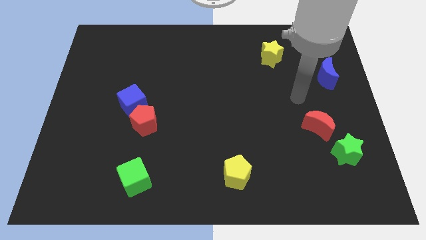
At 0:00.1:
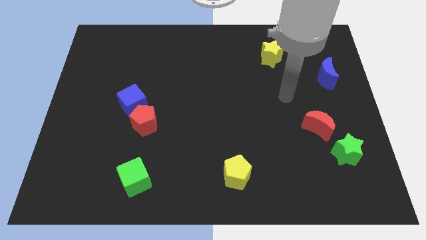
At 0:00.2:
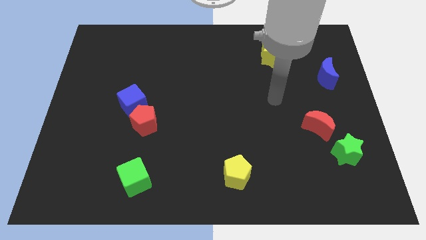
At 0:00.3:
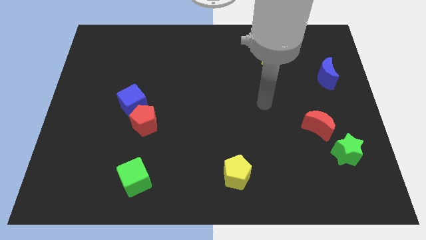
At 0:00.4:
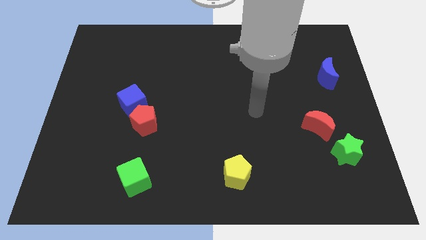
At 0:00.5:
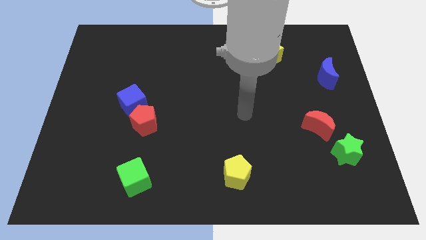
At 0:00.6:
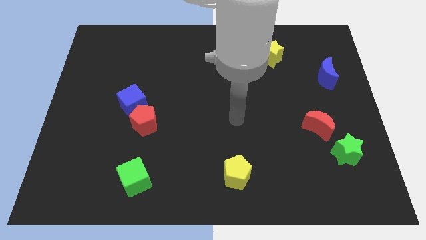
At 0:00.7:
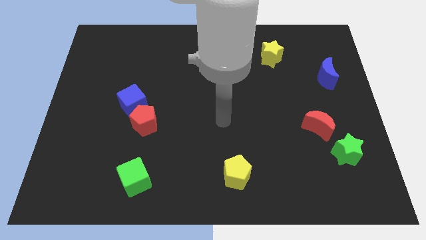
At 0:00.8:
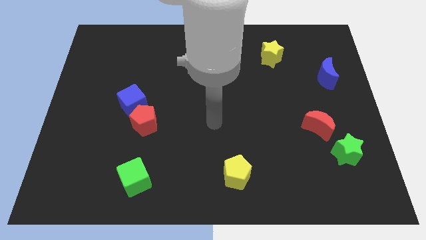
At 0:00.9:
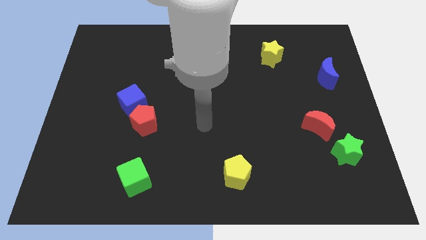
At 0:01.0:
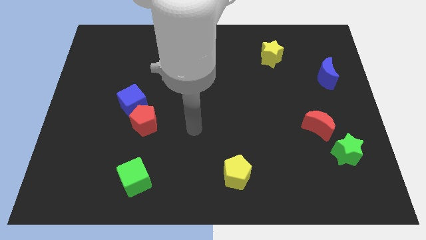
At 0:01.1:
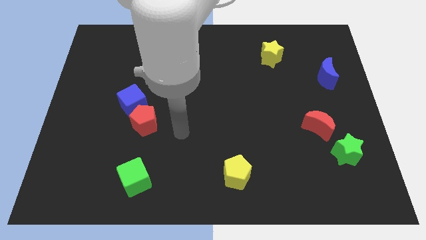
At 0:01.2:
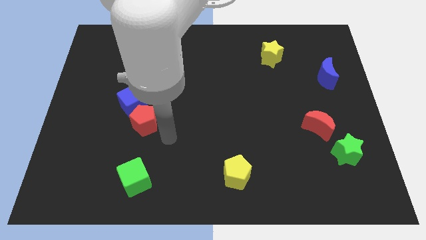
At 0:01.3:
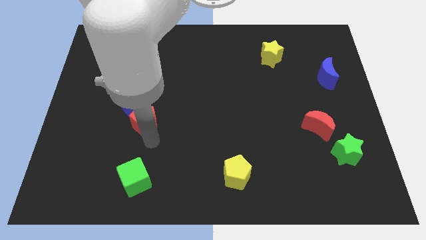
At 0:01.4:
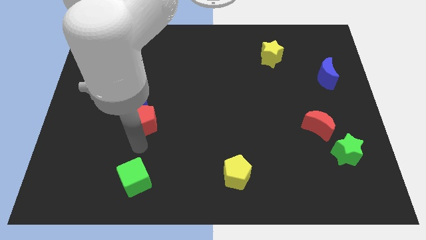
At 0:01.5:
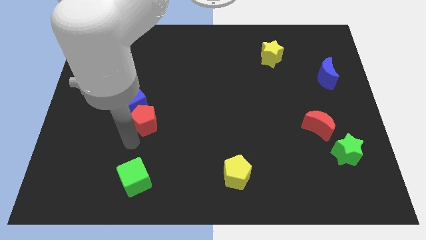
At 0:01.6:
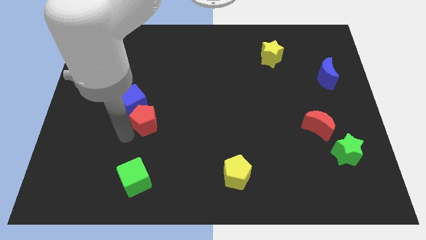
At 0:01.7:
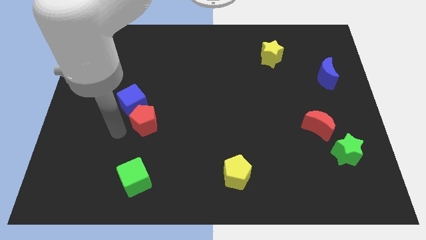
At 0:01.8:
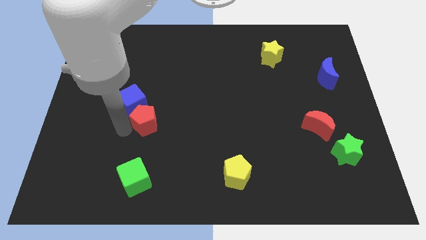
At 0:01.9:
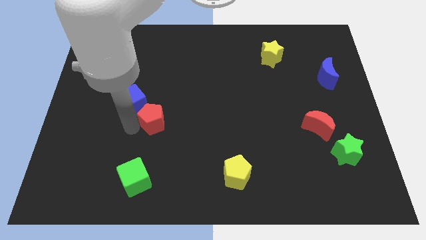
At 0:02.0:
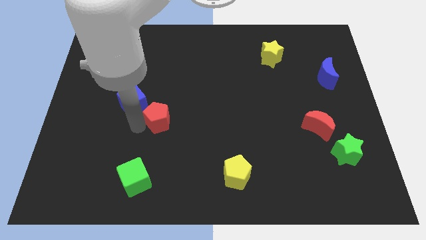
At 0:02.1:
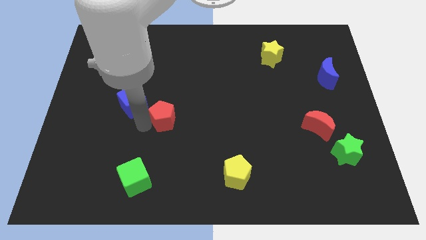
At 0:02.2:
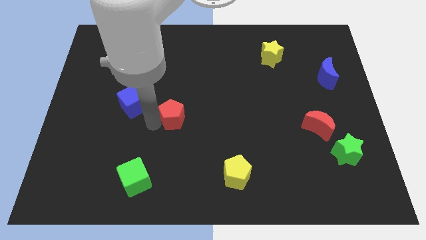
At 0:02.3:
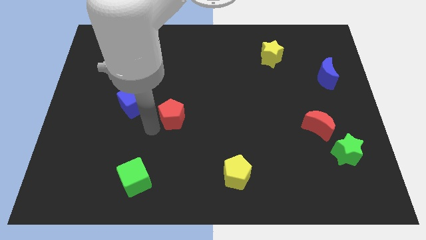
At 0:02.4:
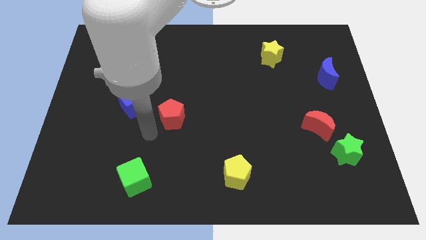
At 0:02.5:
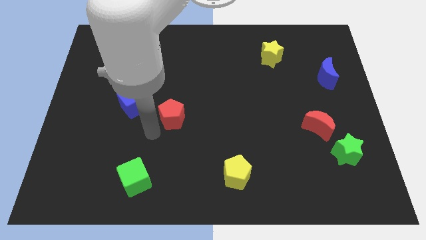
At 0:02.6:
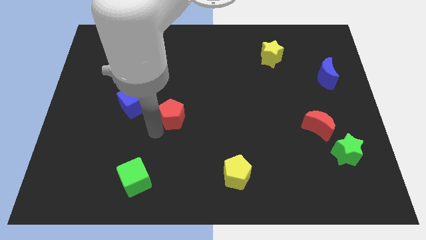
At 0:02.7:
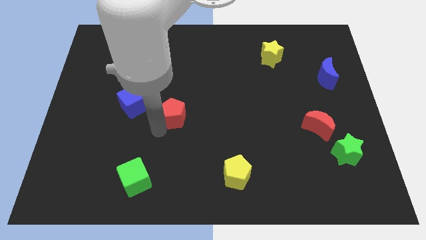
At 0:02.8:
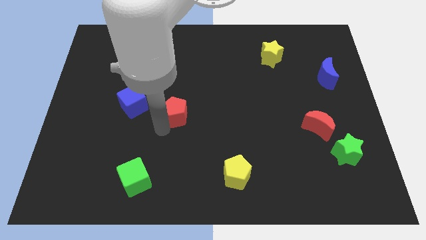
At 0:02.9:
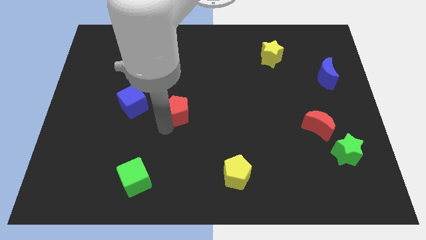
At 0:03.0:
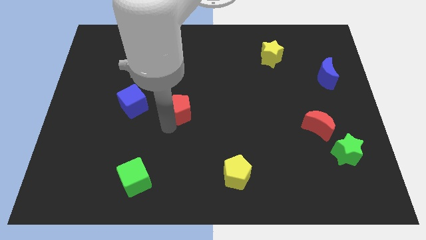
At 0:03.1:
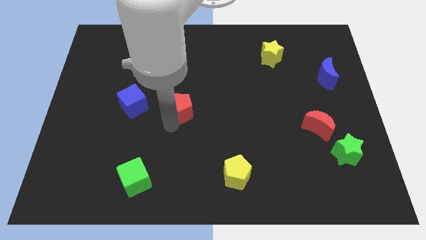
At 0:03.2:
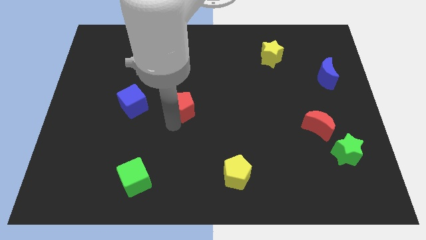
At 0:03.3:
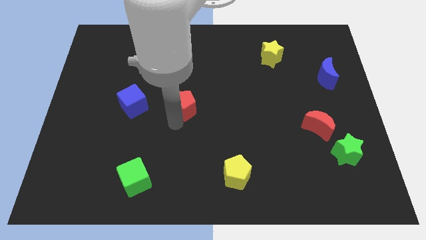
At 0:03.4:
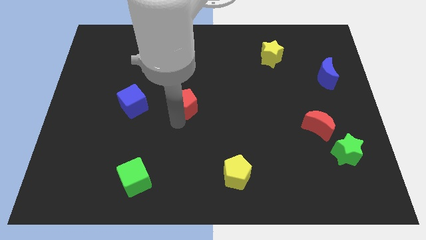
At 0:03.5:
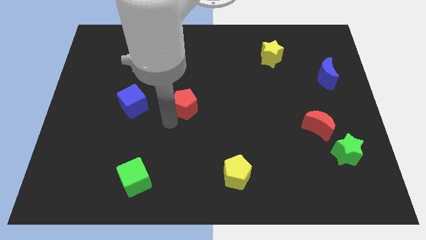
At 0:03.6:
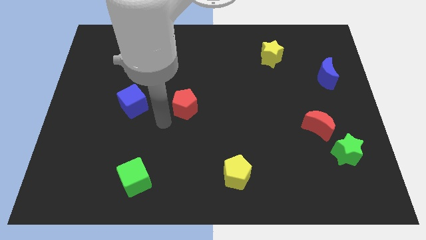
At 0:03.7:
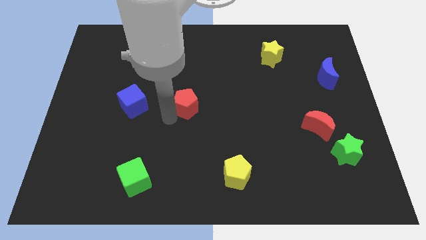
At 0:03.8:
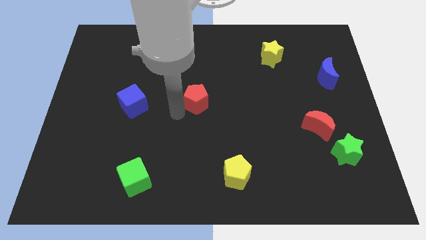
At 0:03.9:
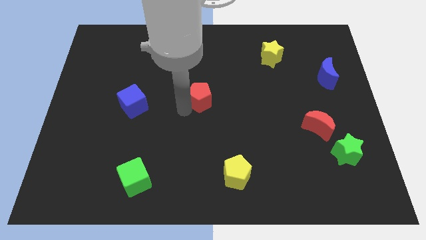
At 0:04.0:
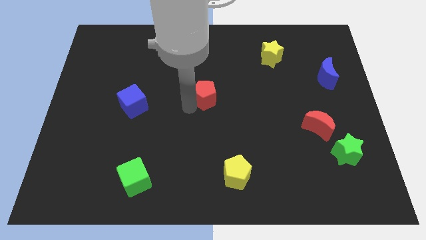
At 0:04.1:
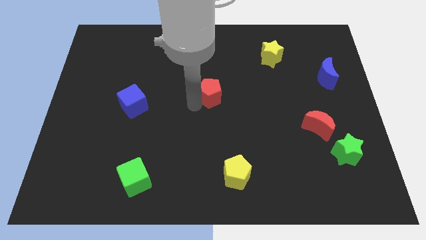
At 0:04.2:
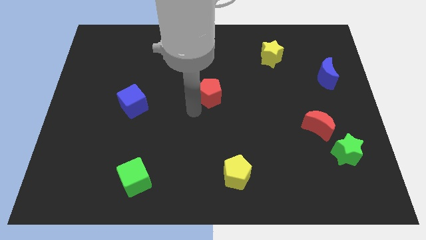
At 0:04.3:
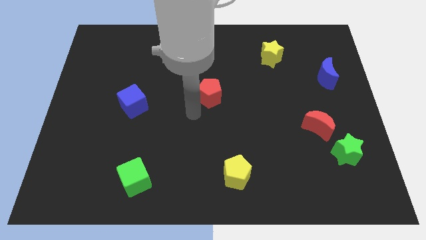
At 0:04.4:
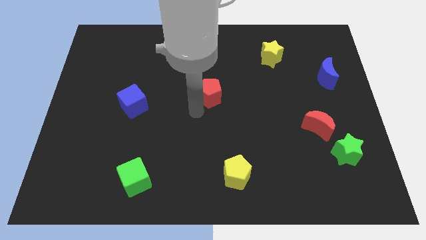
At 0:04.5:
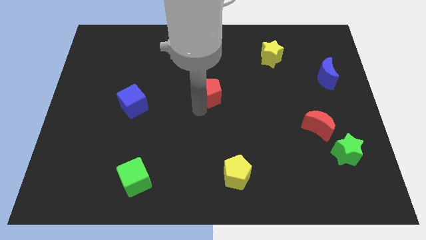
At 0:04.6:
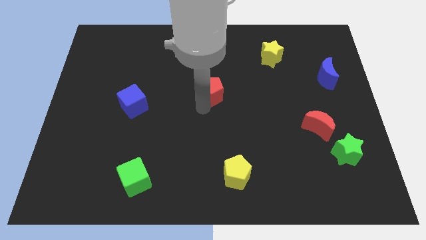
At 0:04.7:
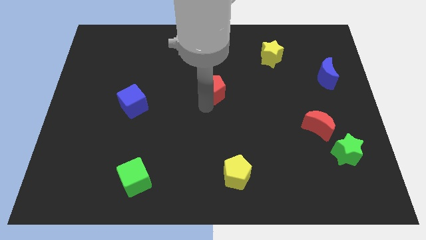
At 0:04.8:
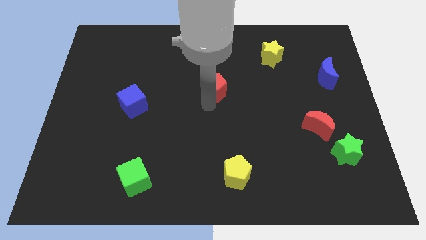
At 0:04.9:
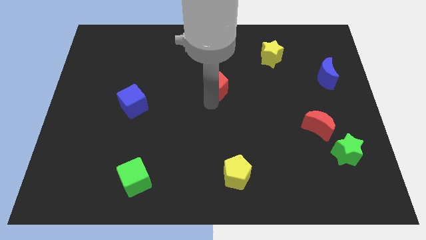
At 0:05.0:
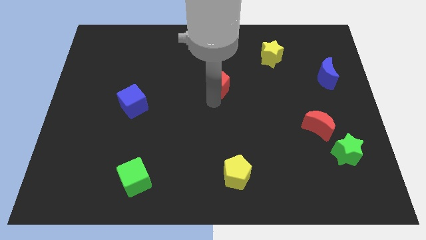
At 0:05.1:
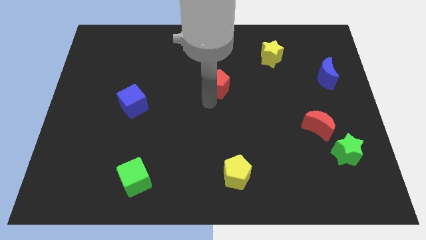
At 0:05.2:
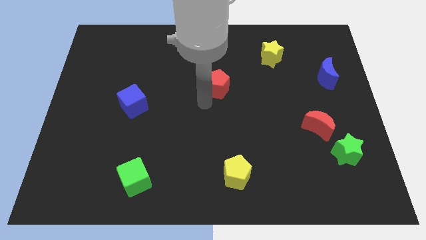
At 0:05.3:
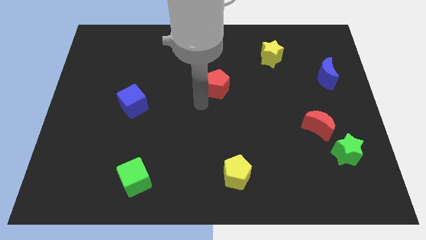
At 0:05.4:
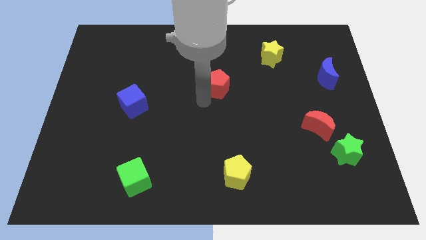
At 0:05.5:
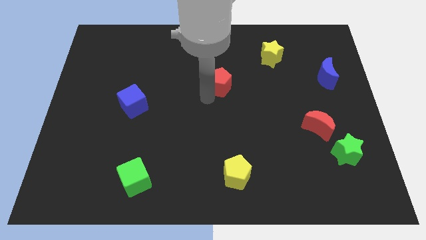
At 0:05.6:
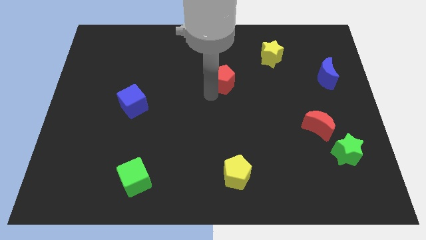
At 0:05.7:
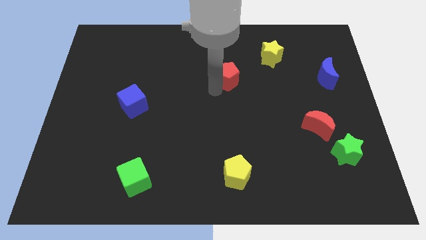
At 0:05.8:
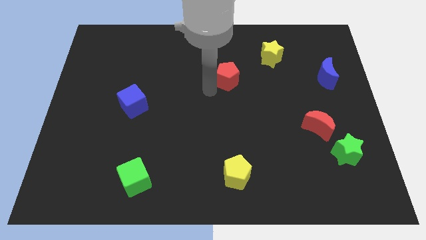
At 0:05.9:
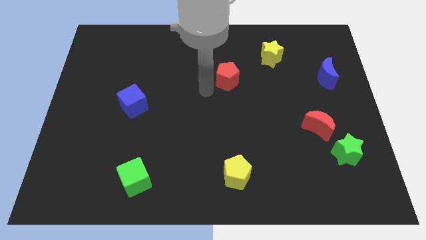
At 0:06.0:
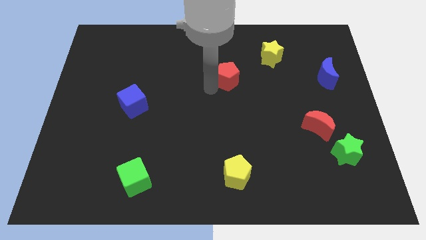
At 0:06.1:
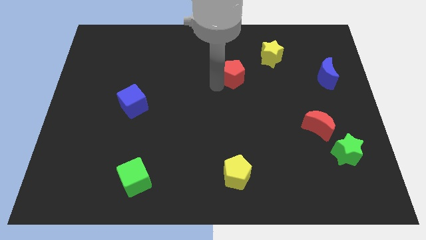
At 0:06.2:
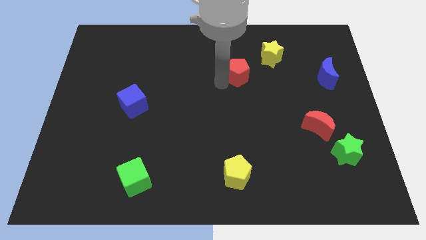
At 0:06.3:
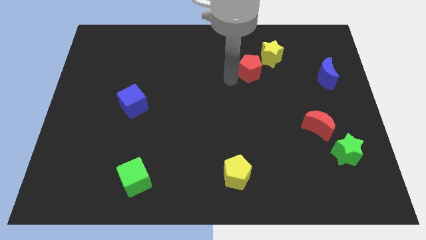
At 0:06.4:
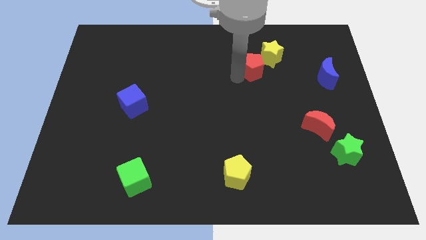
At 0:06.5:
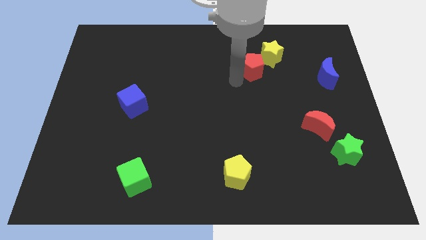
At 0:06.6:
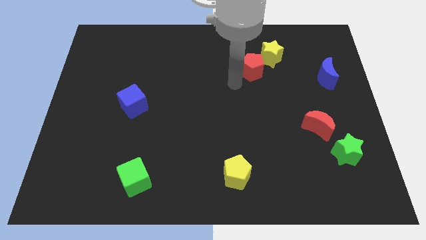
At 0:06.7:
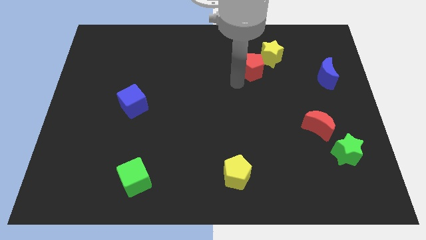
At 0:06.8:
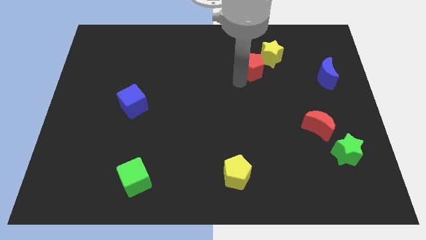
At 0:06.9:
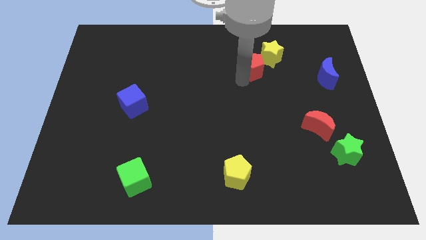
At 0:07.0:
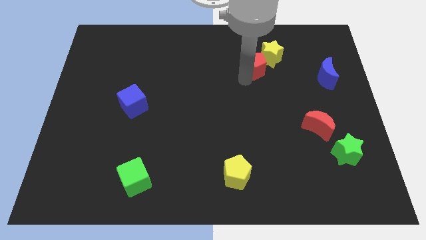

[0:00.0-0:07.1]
move the red pentagon towards the yellow star
